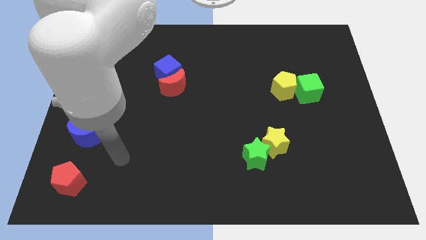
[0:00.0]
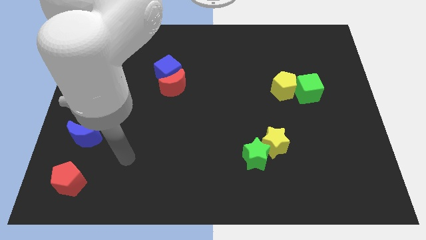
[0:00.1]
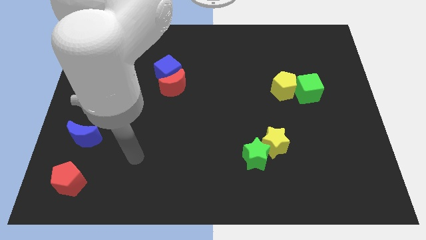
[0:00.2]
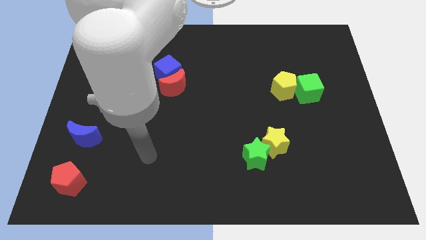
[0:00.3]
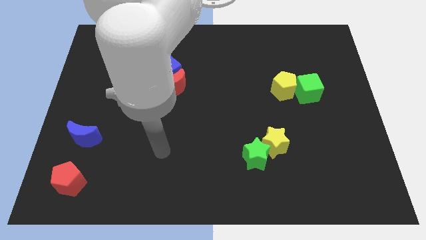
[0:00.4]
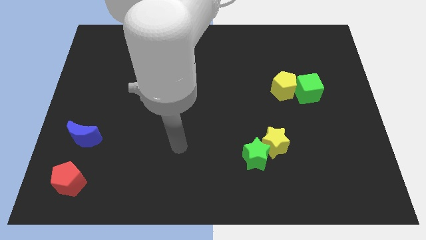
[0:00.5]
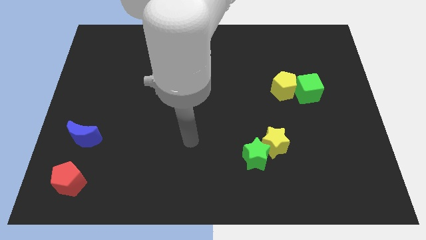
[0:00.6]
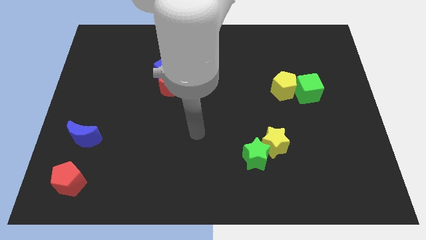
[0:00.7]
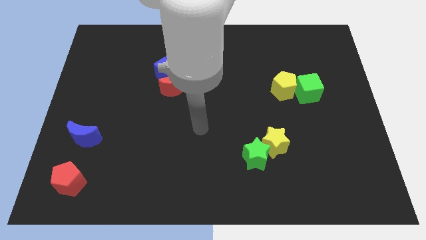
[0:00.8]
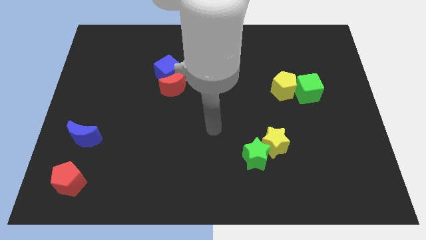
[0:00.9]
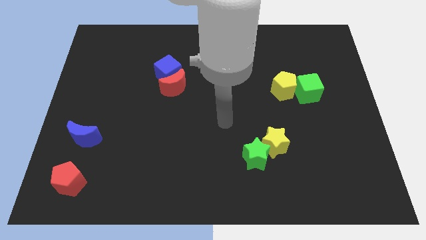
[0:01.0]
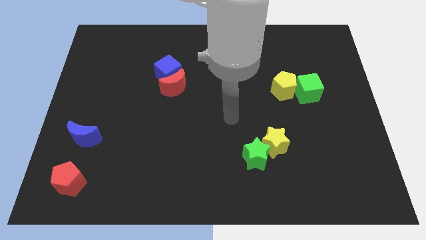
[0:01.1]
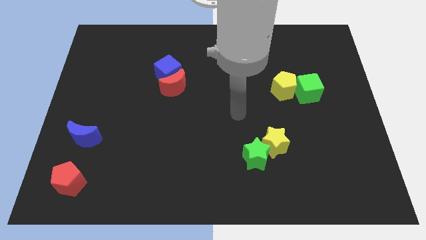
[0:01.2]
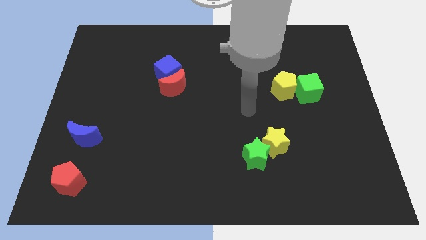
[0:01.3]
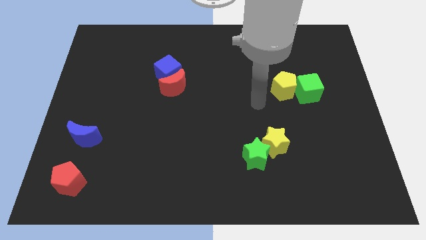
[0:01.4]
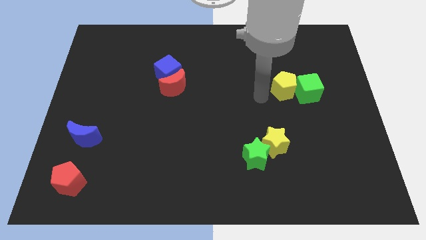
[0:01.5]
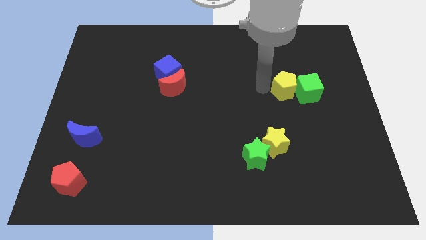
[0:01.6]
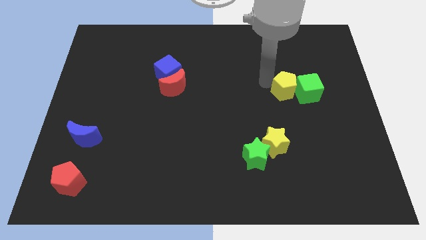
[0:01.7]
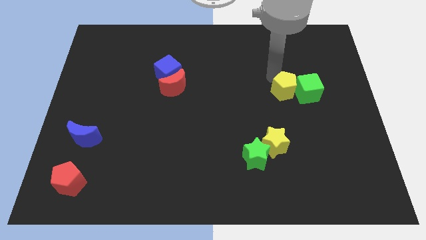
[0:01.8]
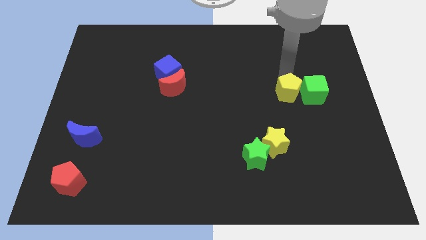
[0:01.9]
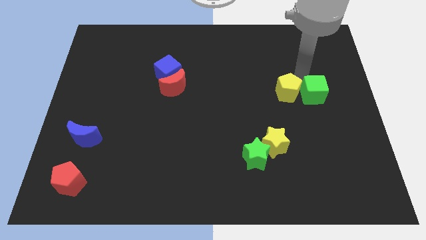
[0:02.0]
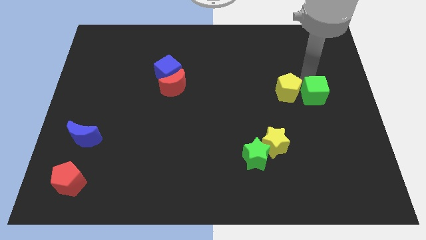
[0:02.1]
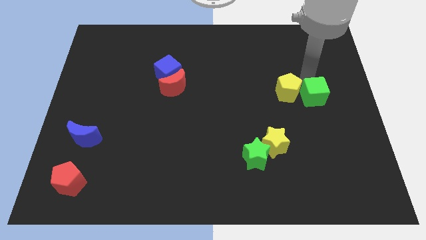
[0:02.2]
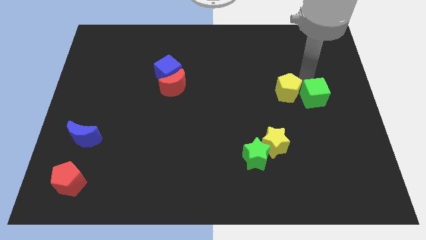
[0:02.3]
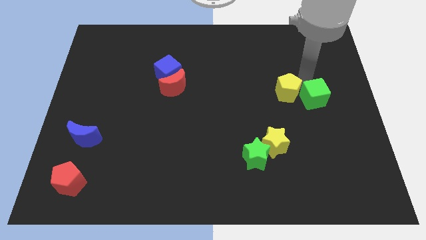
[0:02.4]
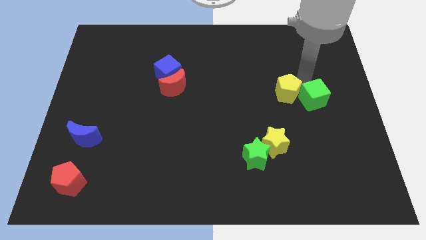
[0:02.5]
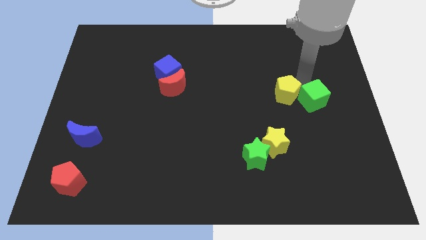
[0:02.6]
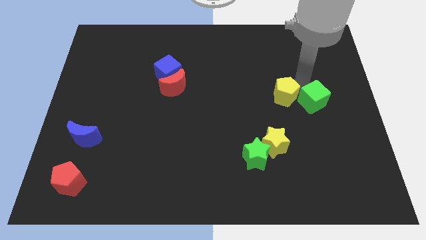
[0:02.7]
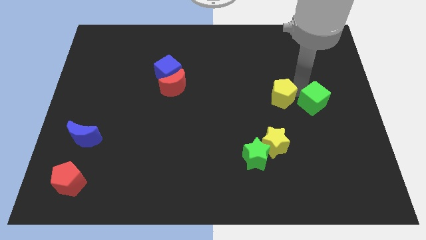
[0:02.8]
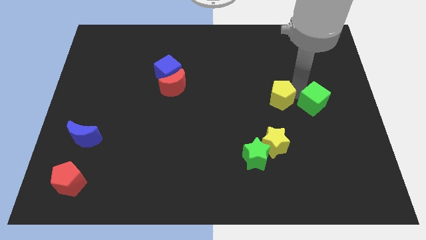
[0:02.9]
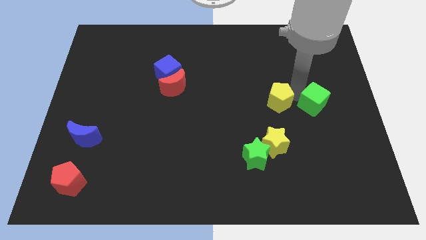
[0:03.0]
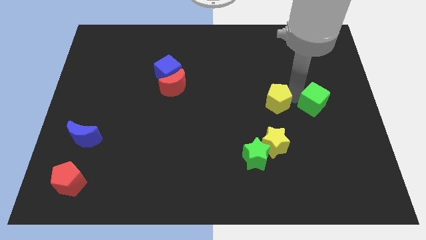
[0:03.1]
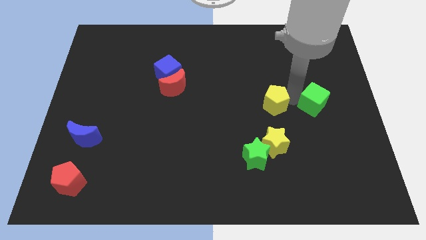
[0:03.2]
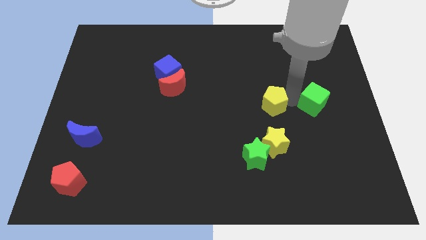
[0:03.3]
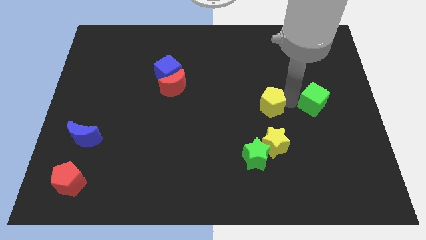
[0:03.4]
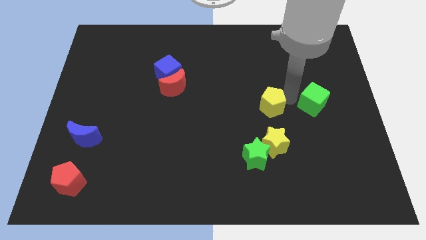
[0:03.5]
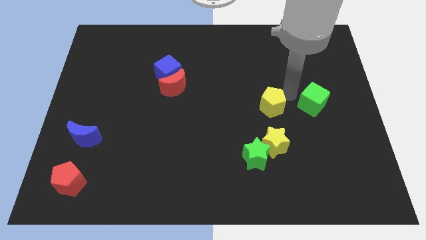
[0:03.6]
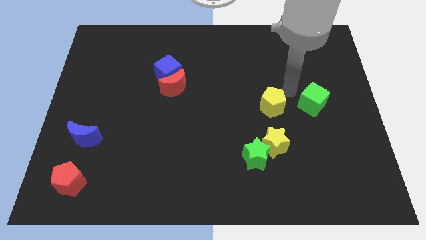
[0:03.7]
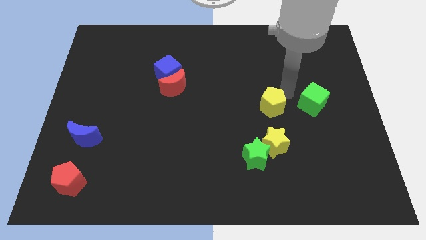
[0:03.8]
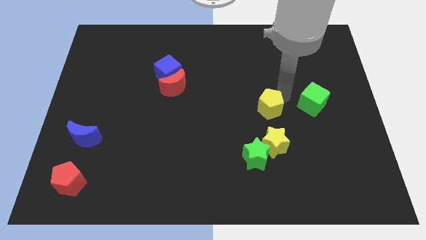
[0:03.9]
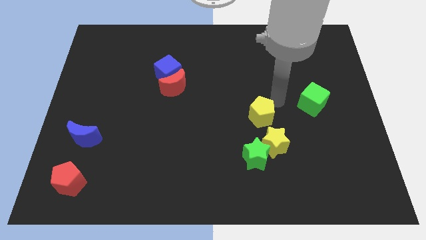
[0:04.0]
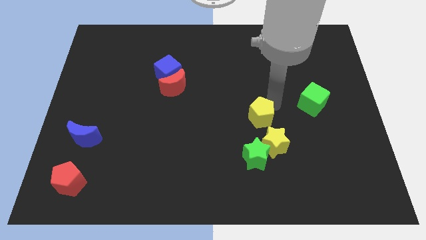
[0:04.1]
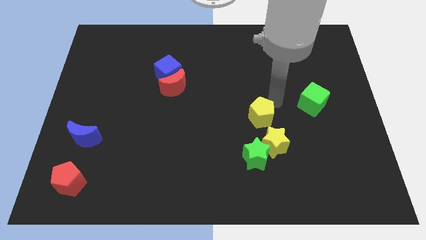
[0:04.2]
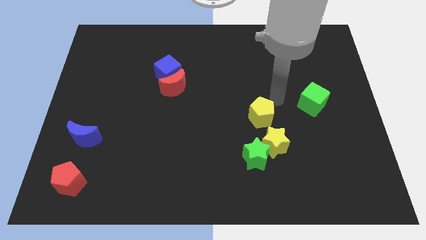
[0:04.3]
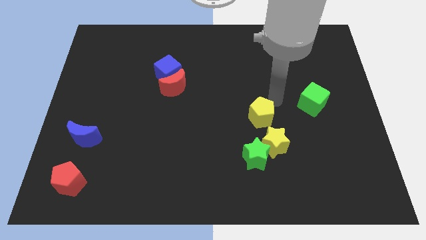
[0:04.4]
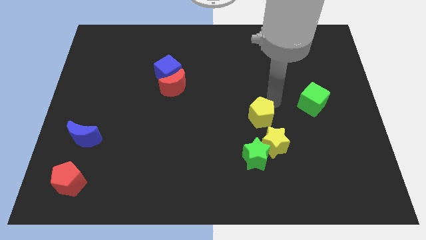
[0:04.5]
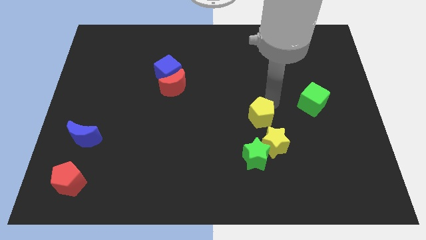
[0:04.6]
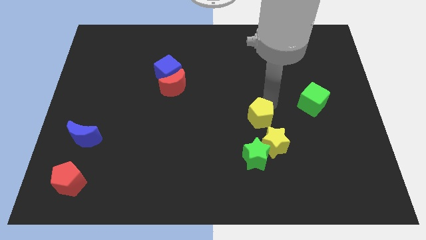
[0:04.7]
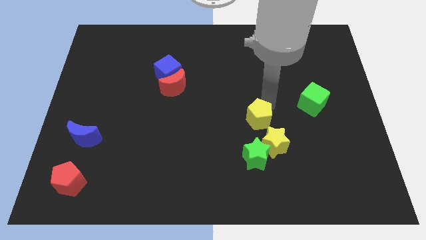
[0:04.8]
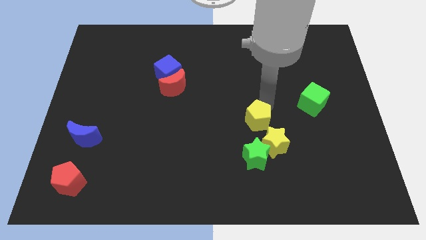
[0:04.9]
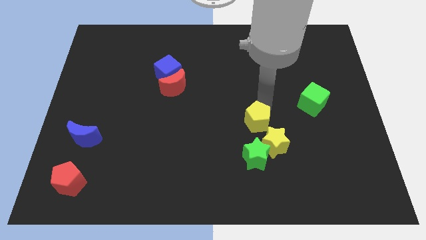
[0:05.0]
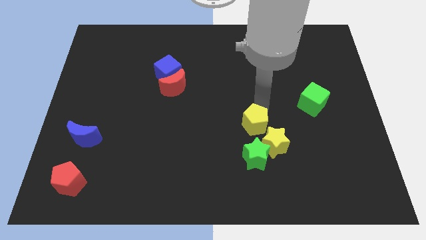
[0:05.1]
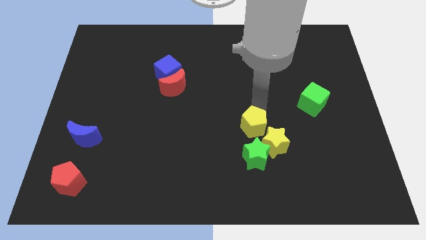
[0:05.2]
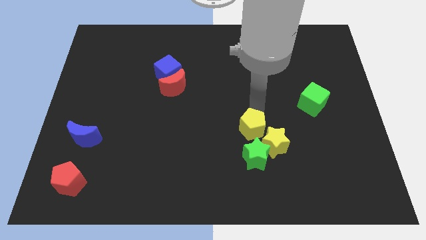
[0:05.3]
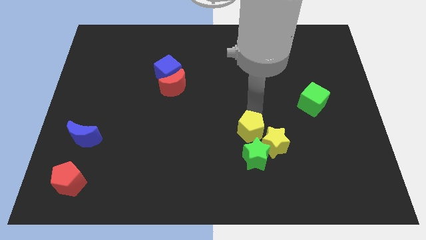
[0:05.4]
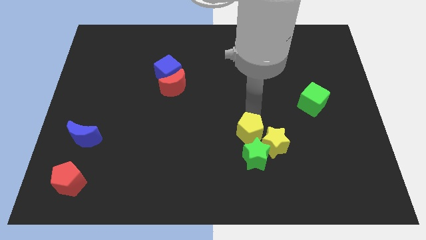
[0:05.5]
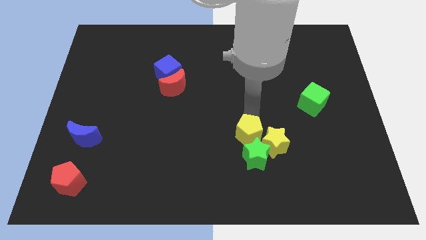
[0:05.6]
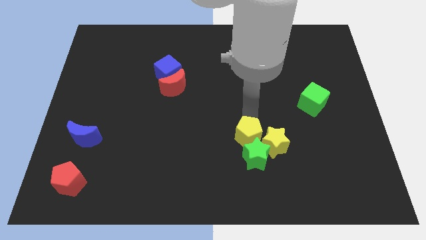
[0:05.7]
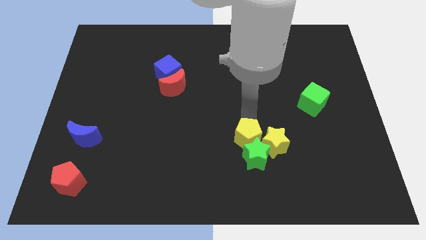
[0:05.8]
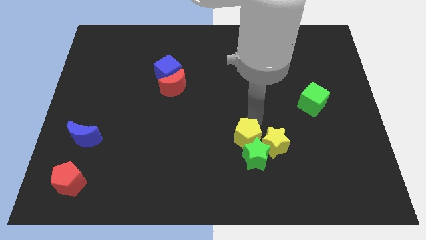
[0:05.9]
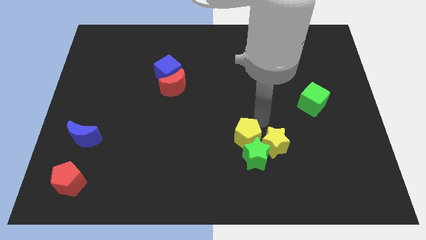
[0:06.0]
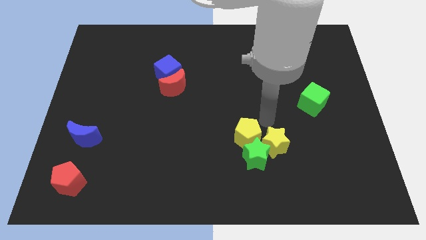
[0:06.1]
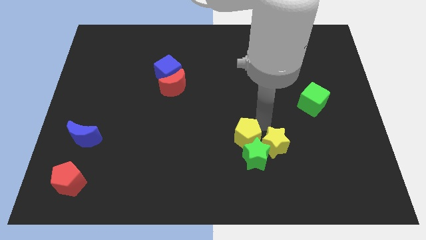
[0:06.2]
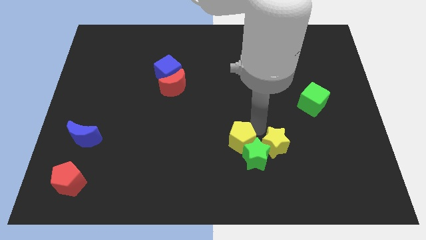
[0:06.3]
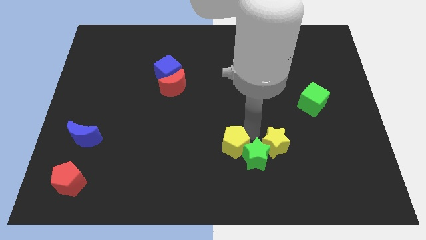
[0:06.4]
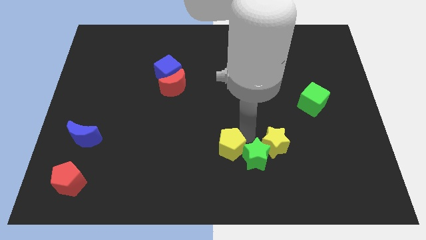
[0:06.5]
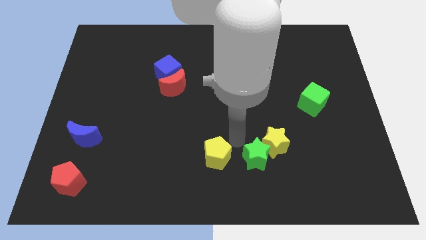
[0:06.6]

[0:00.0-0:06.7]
slide the yellow pentagon to the bottom side

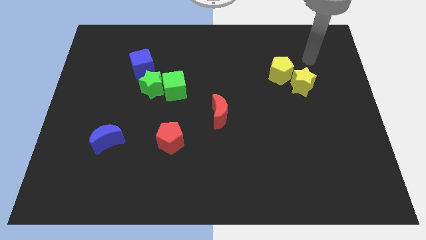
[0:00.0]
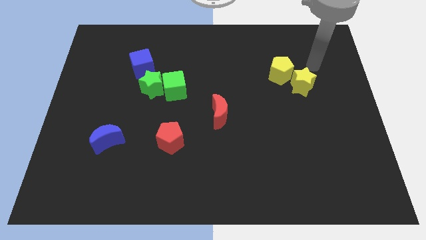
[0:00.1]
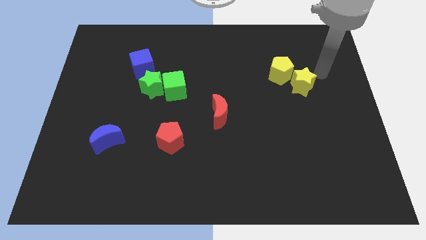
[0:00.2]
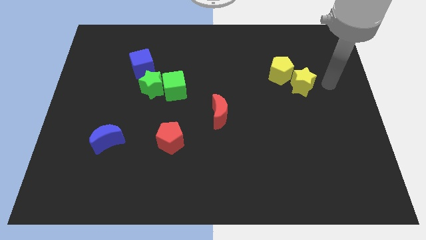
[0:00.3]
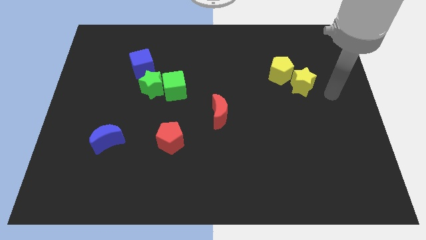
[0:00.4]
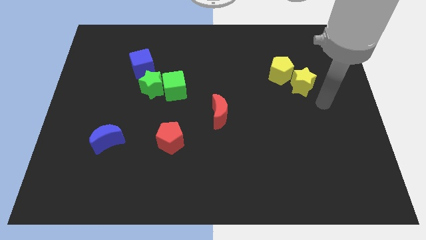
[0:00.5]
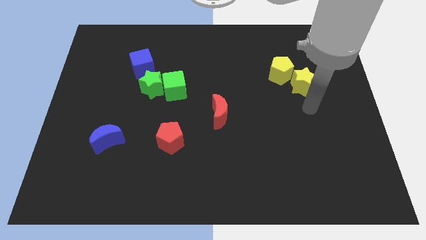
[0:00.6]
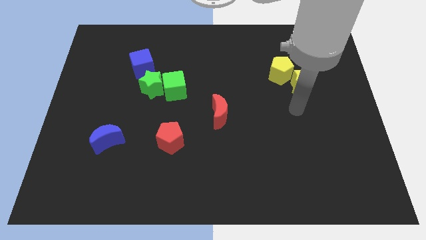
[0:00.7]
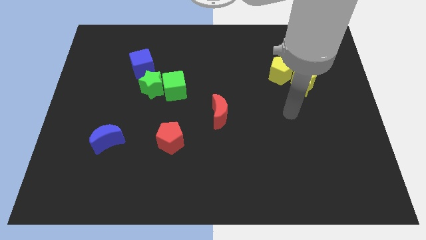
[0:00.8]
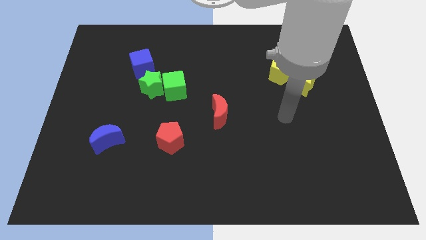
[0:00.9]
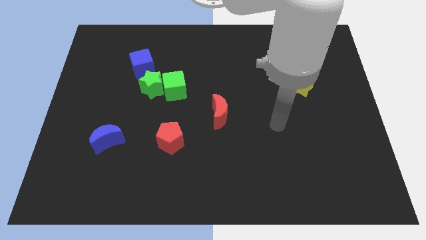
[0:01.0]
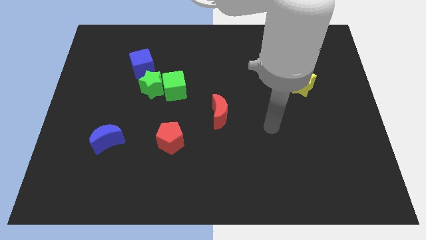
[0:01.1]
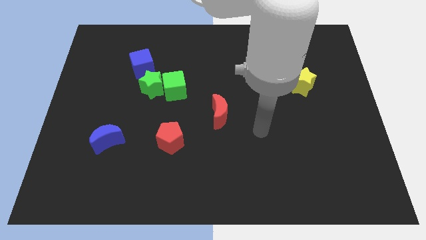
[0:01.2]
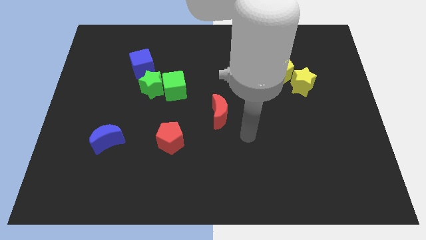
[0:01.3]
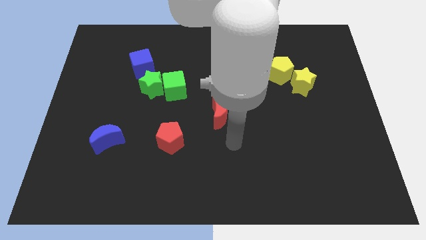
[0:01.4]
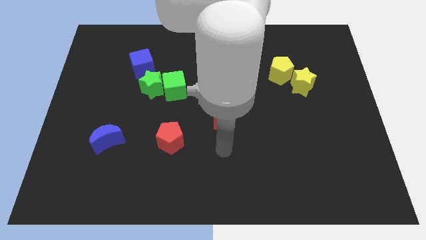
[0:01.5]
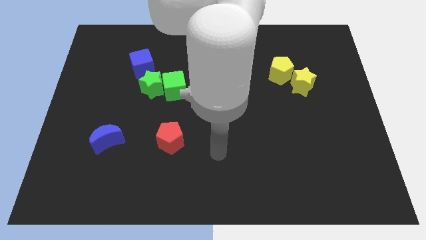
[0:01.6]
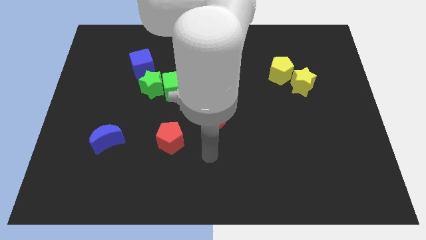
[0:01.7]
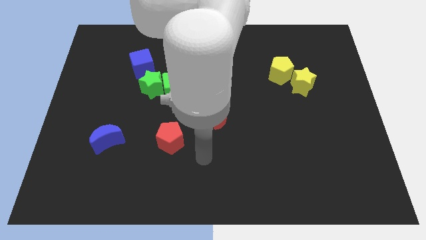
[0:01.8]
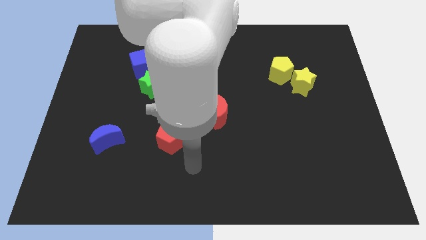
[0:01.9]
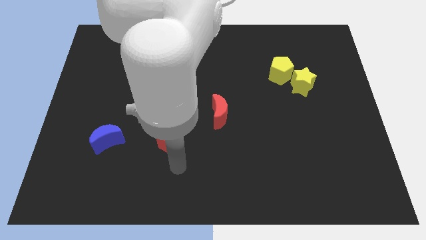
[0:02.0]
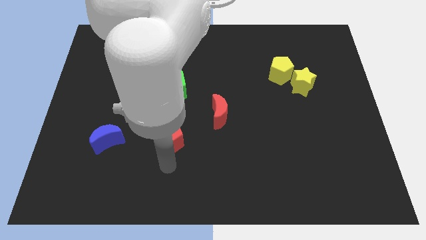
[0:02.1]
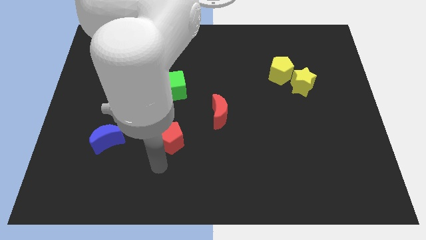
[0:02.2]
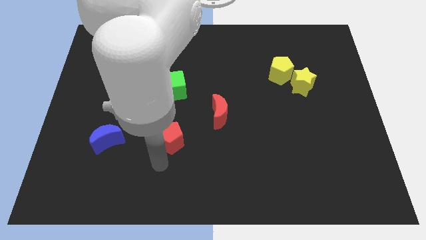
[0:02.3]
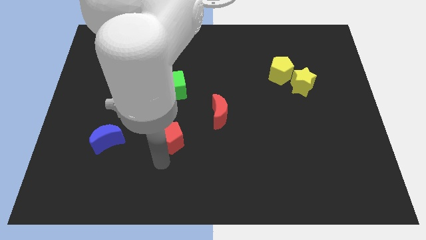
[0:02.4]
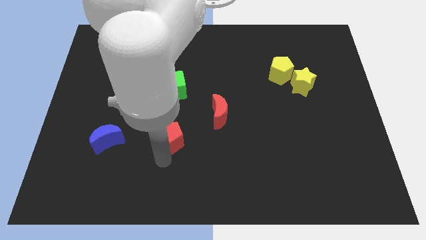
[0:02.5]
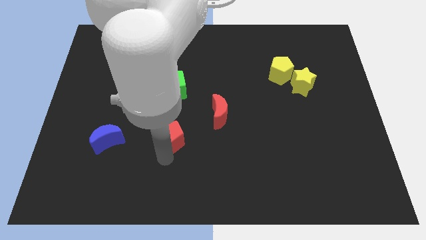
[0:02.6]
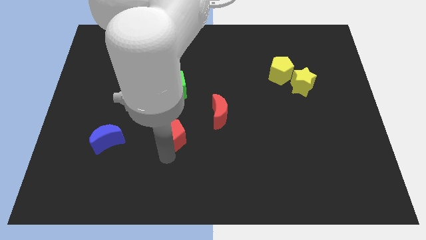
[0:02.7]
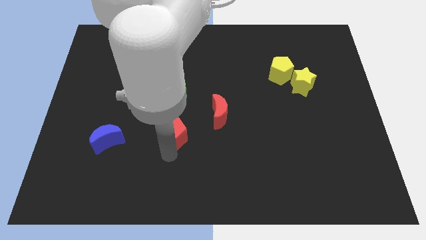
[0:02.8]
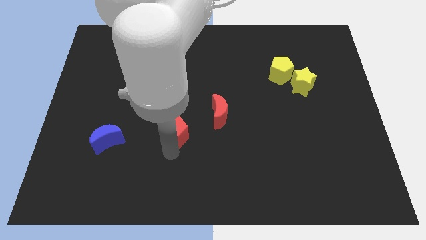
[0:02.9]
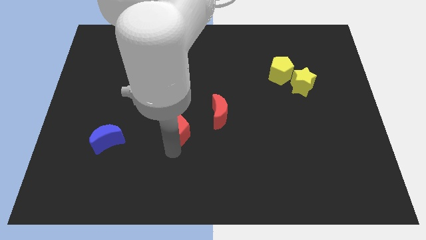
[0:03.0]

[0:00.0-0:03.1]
move the red pentagon to the middle
